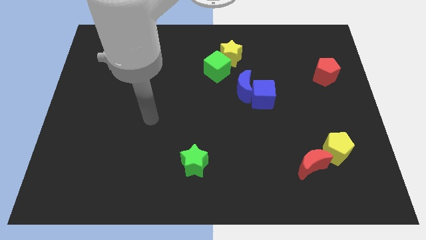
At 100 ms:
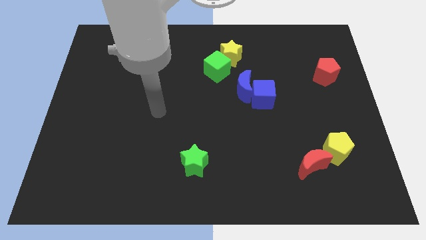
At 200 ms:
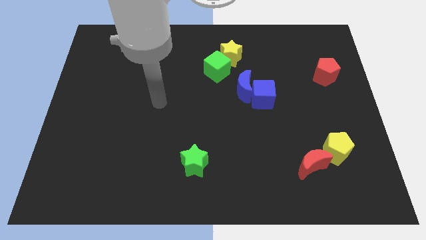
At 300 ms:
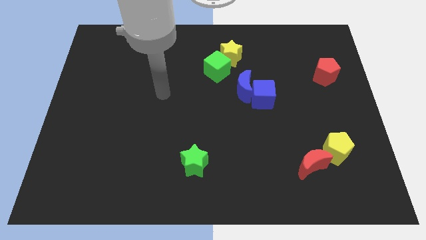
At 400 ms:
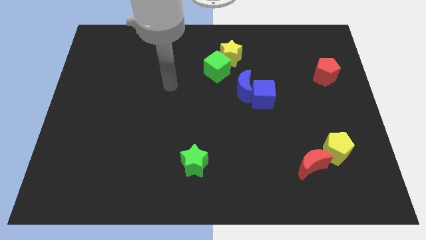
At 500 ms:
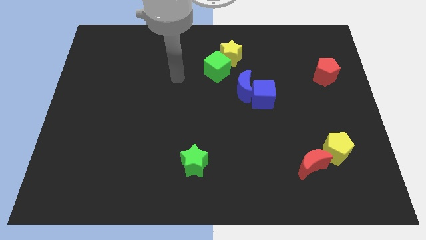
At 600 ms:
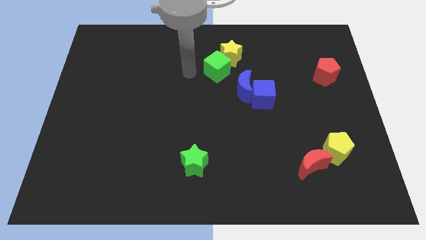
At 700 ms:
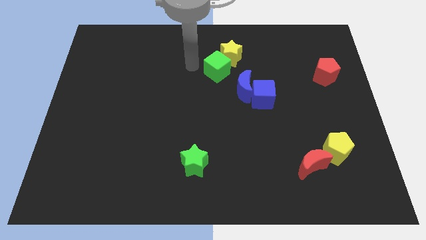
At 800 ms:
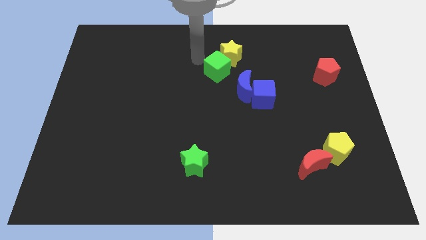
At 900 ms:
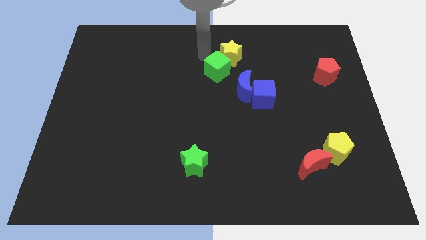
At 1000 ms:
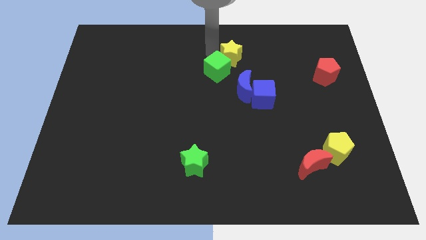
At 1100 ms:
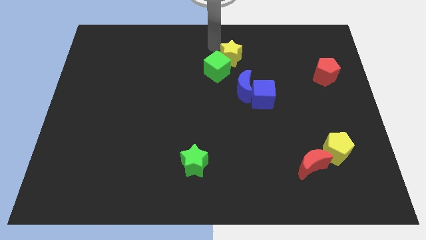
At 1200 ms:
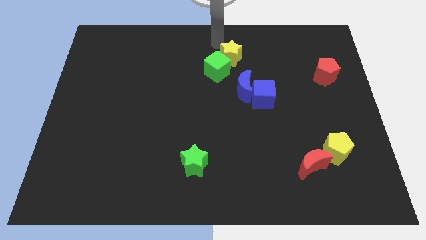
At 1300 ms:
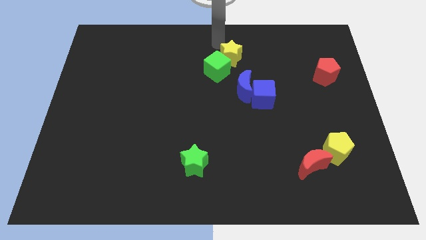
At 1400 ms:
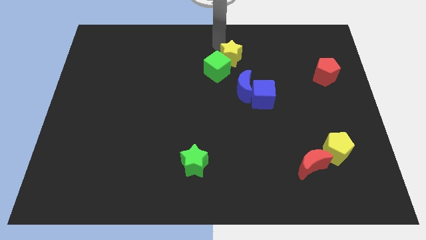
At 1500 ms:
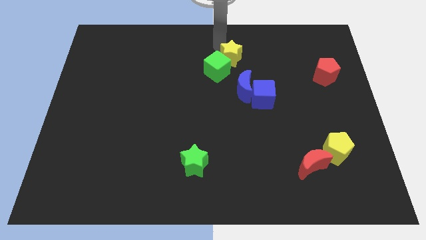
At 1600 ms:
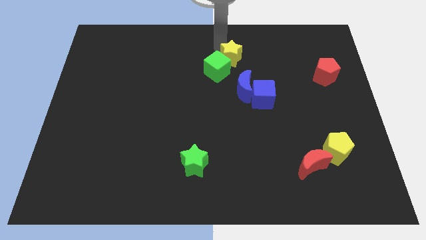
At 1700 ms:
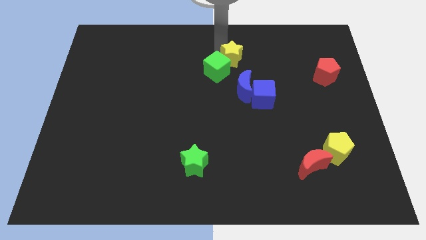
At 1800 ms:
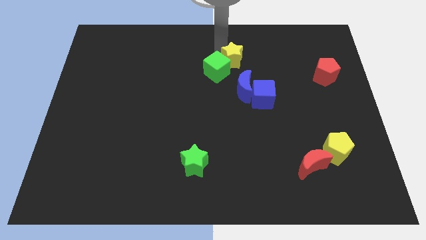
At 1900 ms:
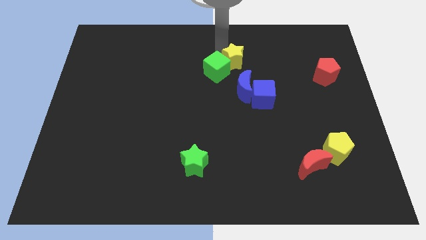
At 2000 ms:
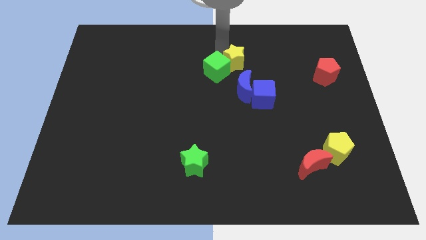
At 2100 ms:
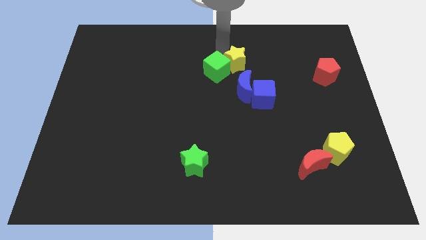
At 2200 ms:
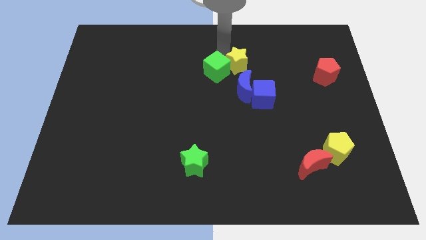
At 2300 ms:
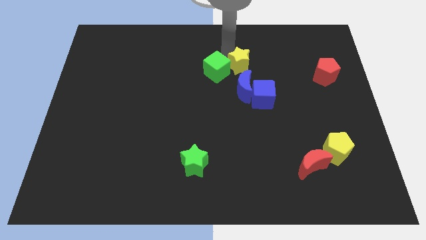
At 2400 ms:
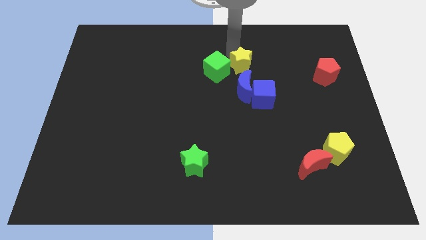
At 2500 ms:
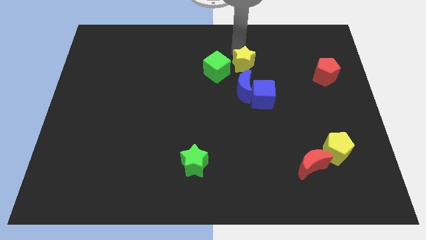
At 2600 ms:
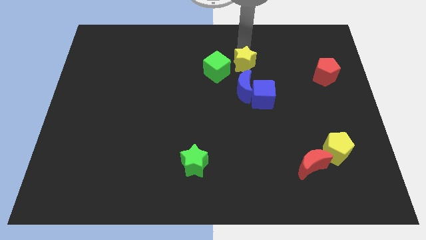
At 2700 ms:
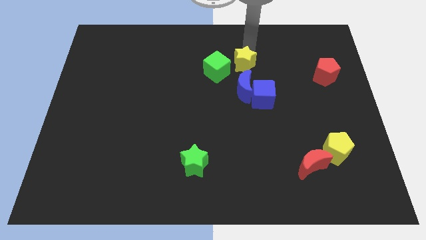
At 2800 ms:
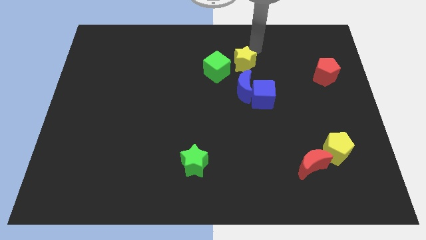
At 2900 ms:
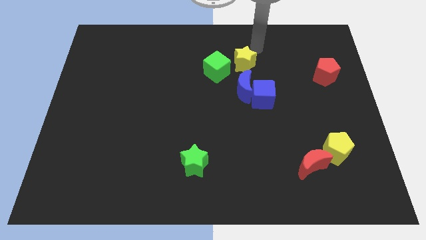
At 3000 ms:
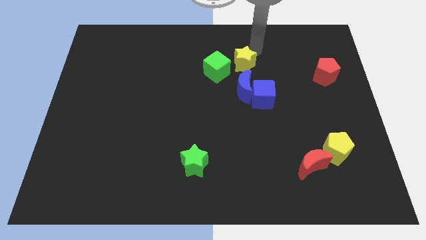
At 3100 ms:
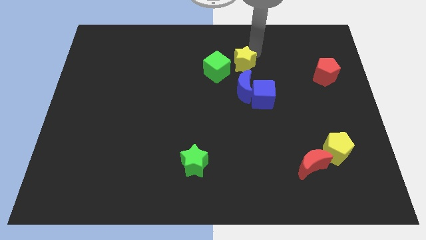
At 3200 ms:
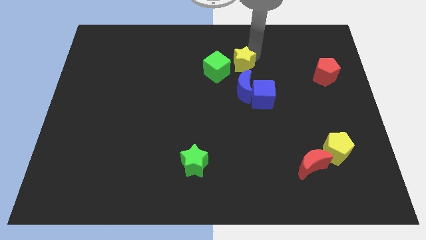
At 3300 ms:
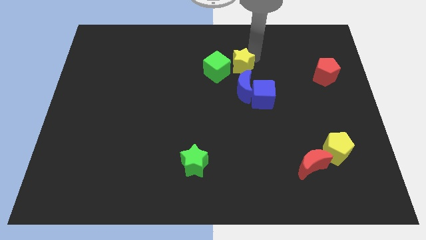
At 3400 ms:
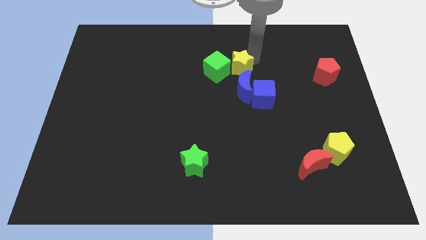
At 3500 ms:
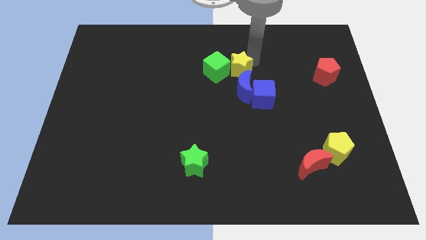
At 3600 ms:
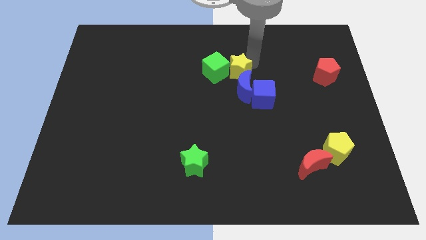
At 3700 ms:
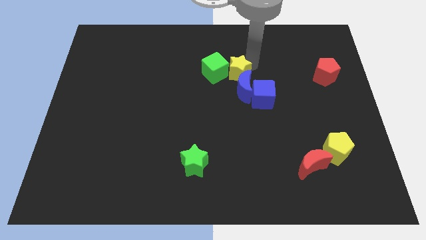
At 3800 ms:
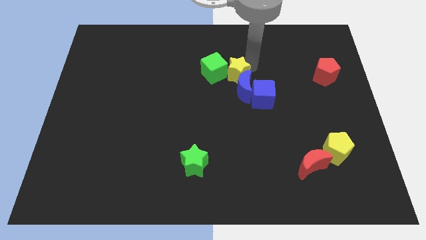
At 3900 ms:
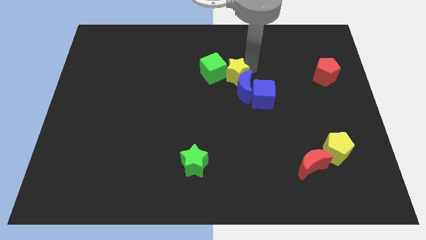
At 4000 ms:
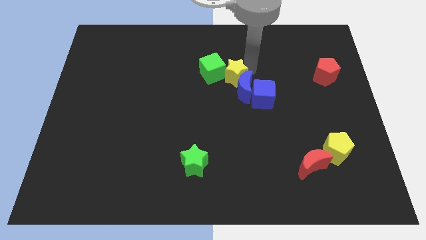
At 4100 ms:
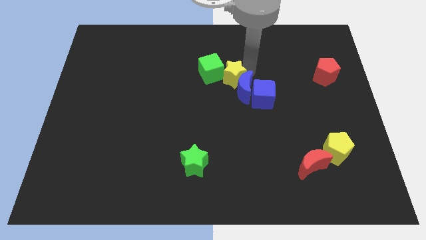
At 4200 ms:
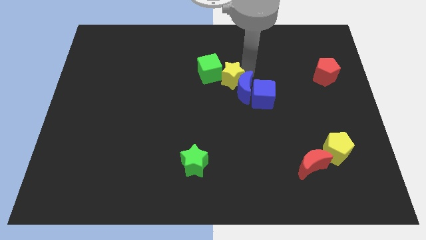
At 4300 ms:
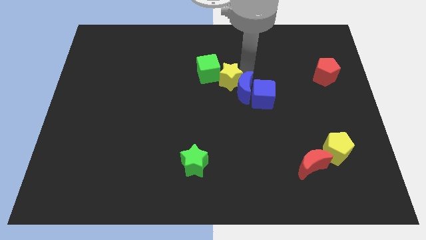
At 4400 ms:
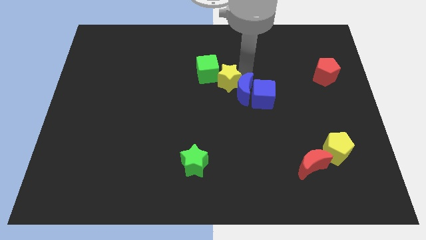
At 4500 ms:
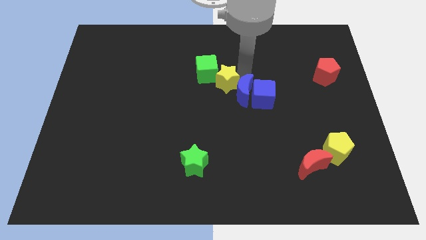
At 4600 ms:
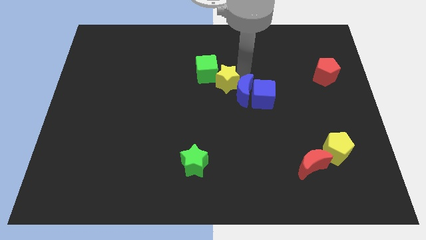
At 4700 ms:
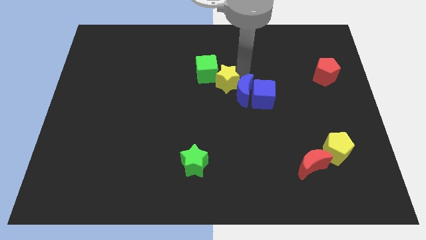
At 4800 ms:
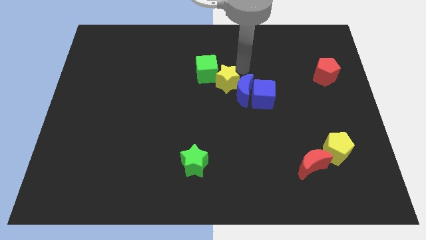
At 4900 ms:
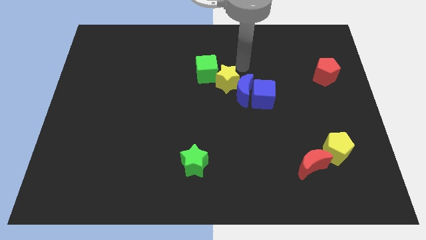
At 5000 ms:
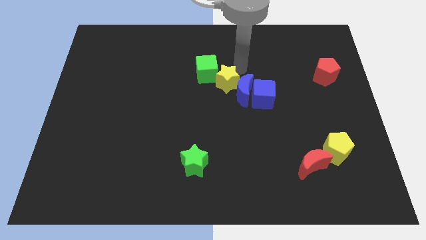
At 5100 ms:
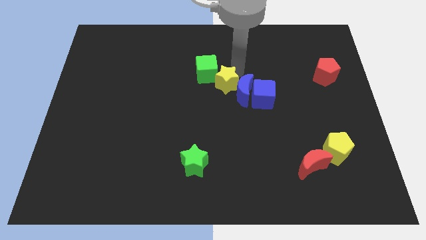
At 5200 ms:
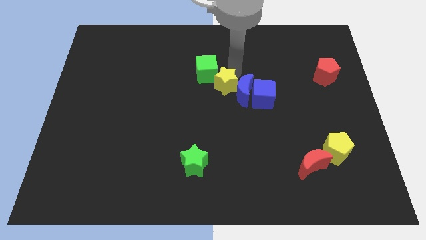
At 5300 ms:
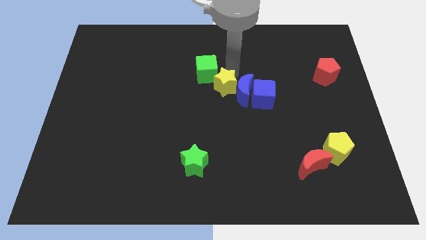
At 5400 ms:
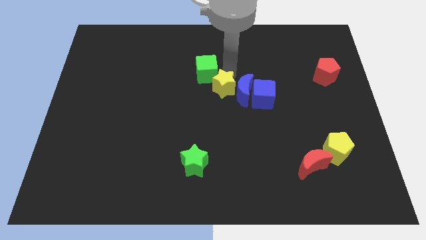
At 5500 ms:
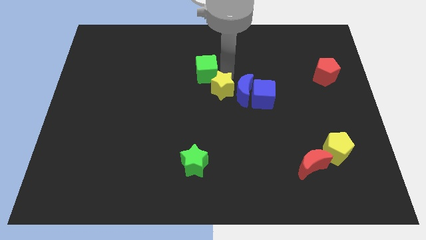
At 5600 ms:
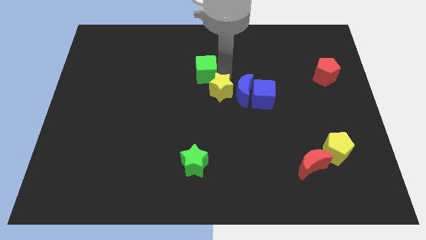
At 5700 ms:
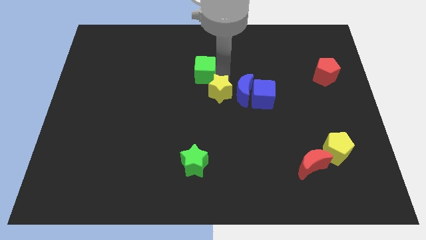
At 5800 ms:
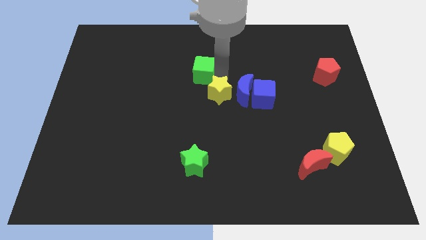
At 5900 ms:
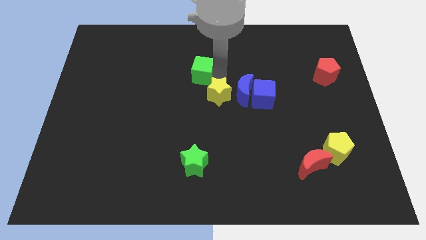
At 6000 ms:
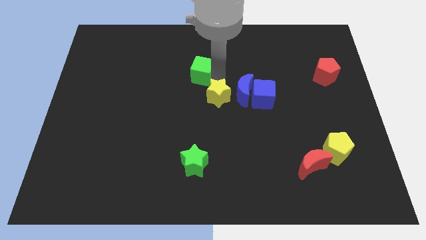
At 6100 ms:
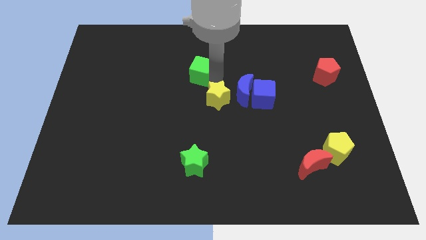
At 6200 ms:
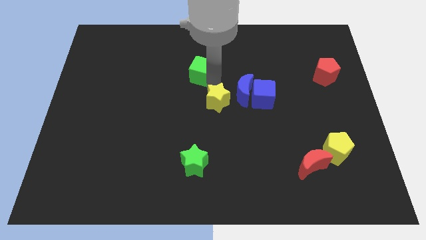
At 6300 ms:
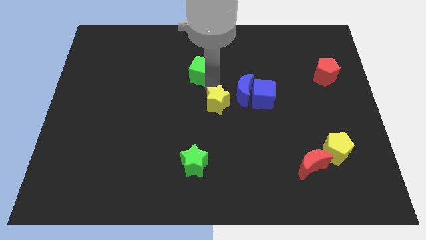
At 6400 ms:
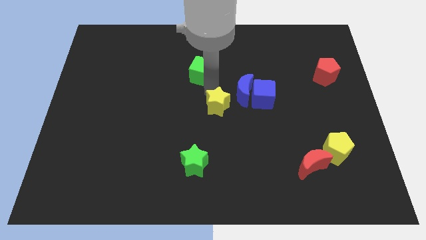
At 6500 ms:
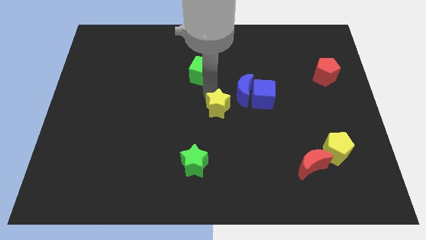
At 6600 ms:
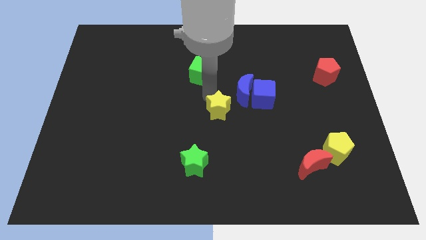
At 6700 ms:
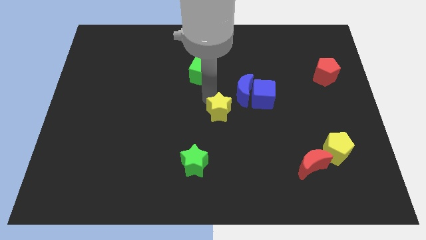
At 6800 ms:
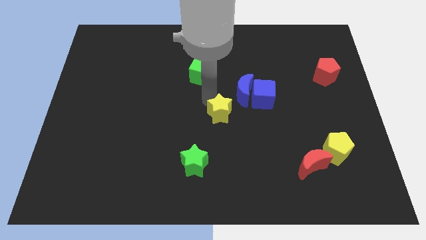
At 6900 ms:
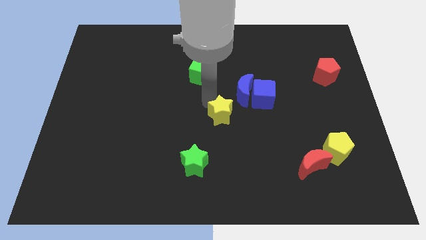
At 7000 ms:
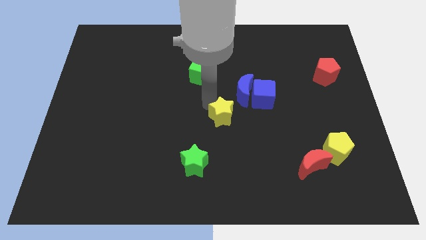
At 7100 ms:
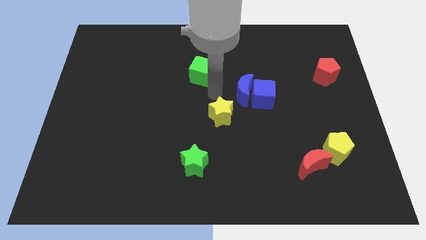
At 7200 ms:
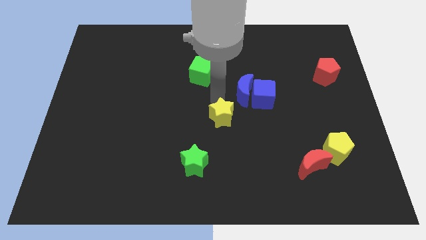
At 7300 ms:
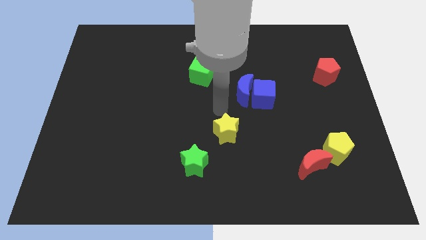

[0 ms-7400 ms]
slide the yellow star down

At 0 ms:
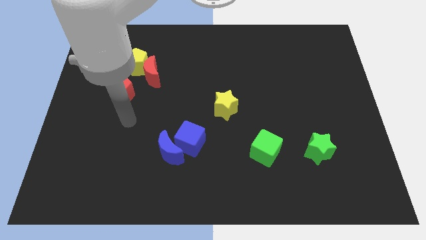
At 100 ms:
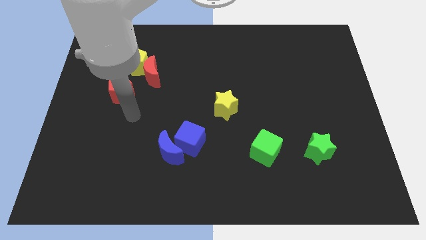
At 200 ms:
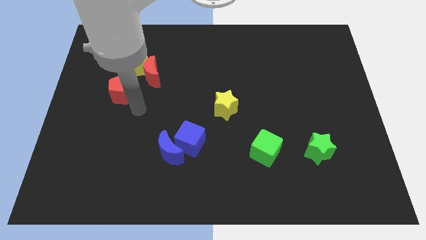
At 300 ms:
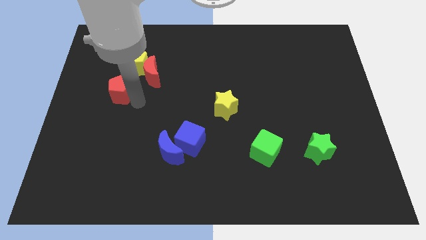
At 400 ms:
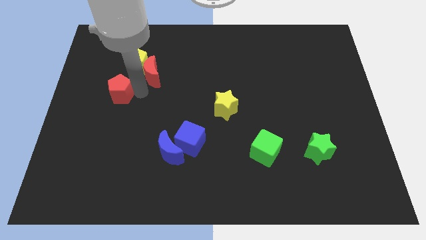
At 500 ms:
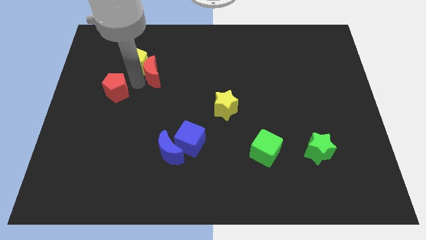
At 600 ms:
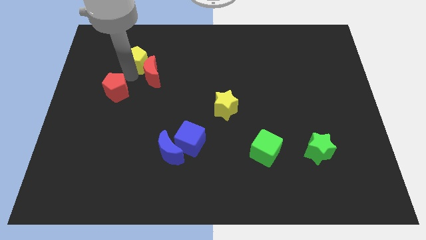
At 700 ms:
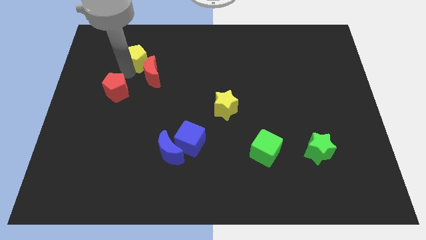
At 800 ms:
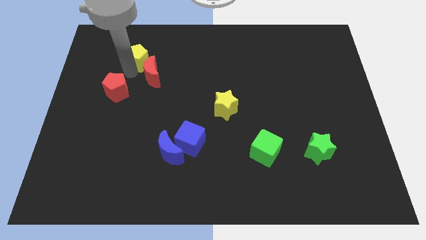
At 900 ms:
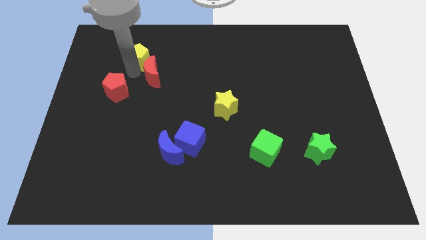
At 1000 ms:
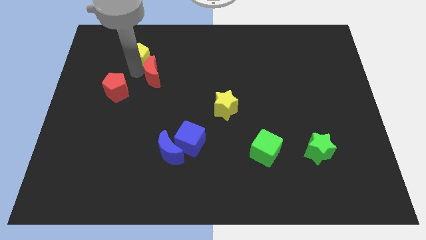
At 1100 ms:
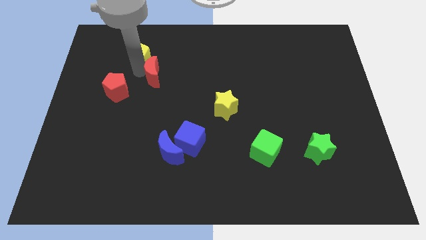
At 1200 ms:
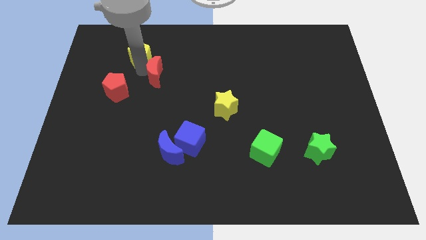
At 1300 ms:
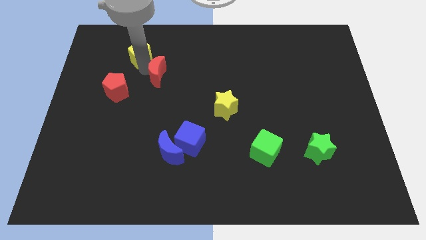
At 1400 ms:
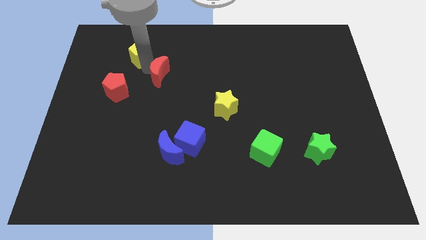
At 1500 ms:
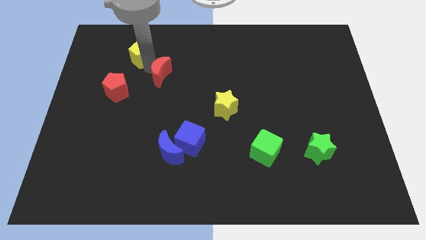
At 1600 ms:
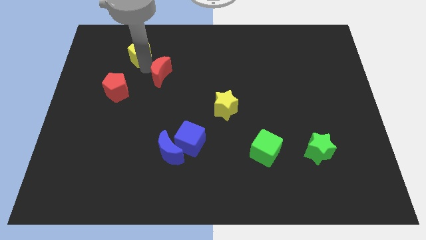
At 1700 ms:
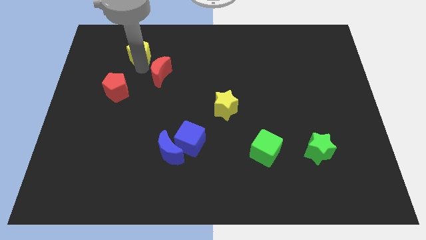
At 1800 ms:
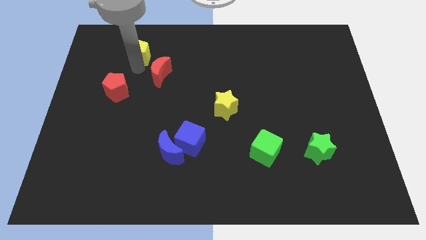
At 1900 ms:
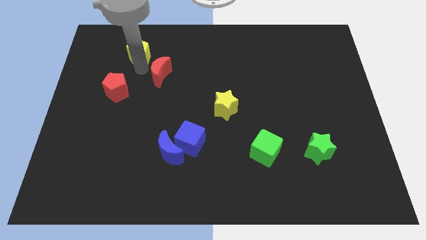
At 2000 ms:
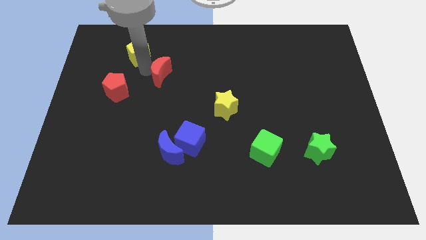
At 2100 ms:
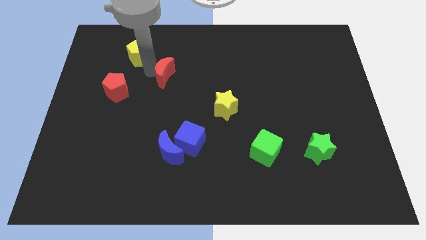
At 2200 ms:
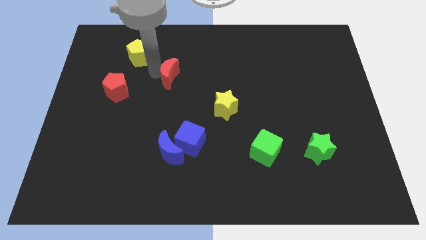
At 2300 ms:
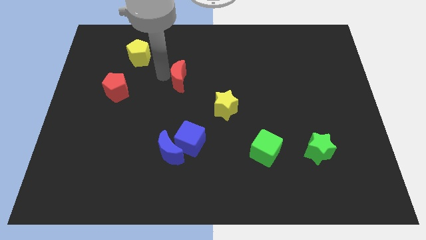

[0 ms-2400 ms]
slide the red moon right slightly
